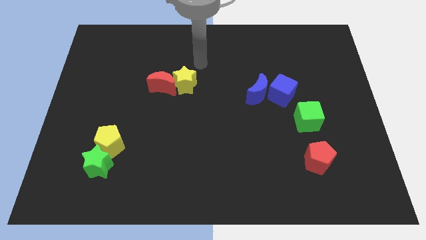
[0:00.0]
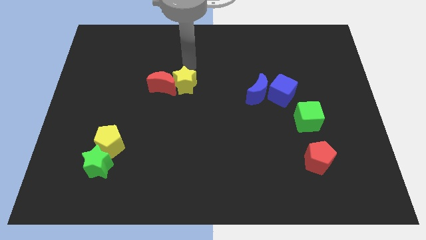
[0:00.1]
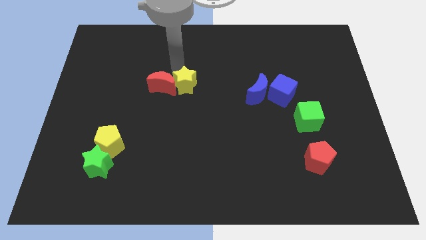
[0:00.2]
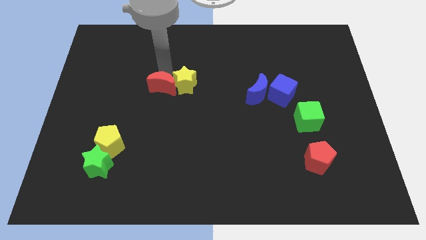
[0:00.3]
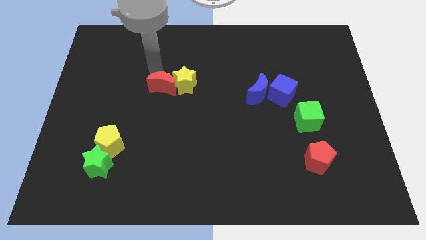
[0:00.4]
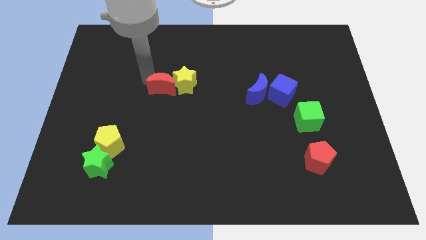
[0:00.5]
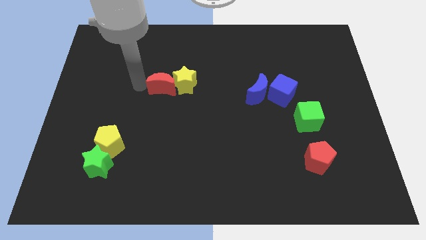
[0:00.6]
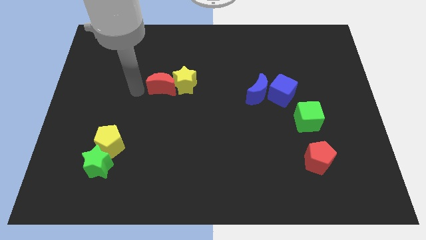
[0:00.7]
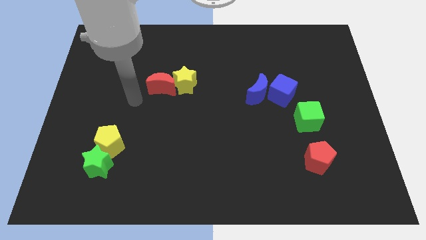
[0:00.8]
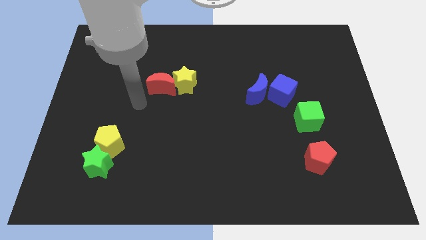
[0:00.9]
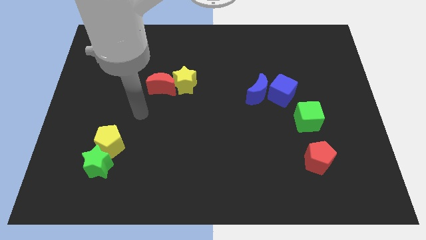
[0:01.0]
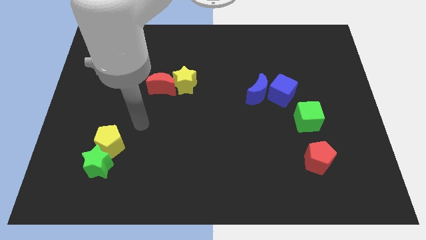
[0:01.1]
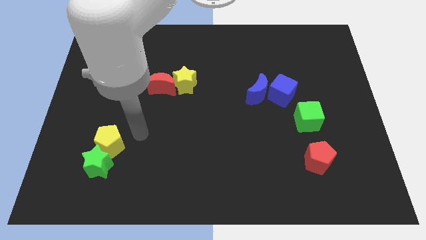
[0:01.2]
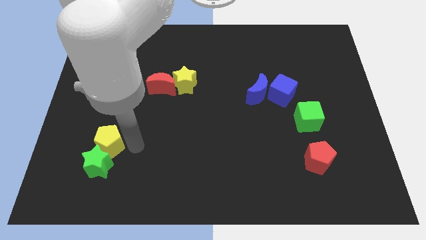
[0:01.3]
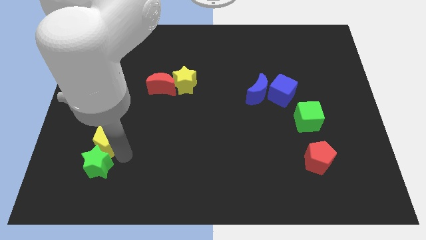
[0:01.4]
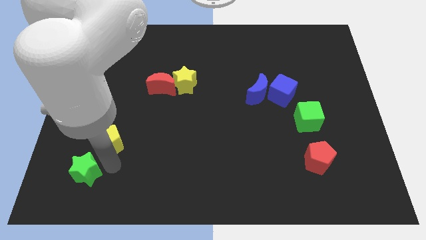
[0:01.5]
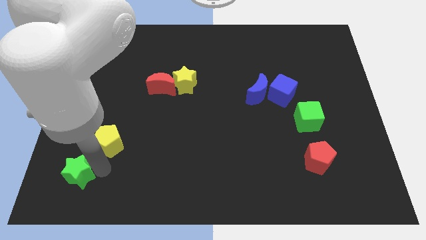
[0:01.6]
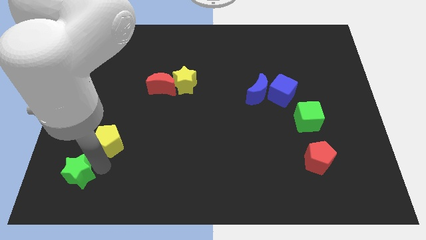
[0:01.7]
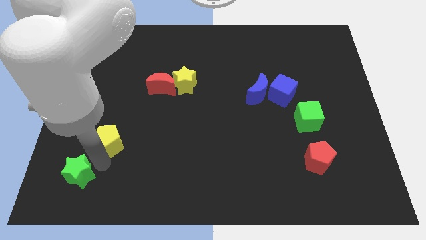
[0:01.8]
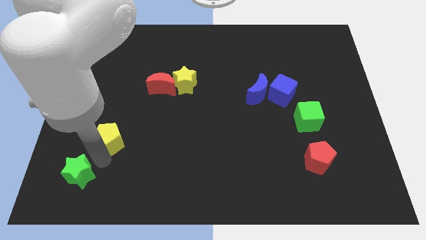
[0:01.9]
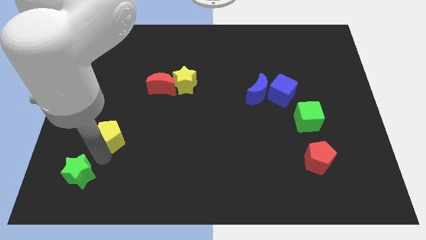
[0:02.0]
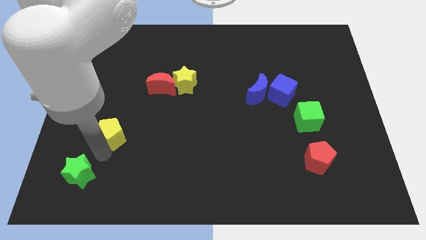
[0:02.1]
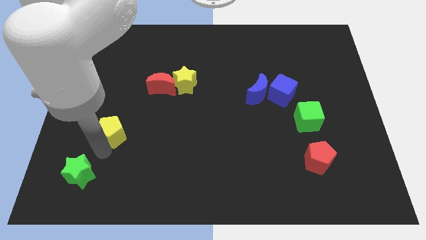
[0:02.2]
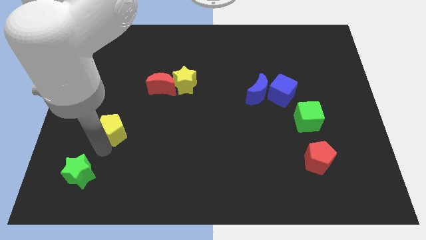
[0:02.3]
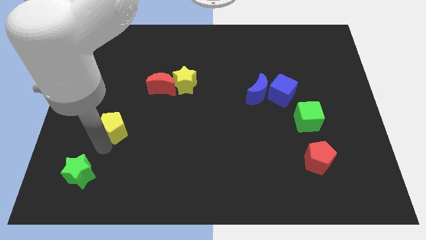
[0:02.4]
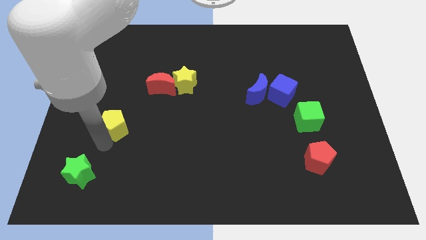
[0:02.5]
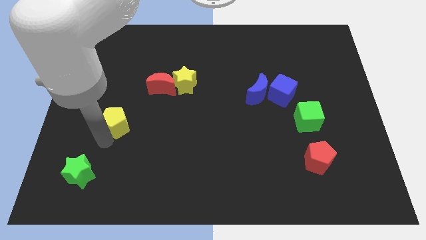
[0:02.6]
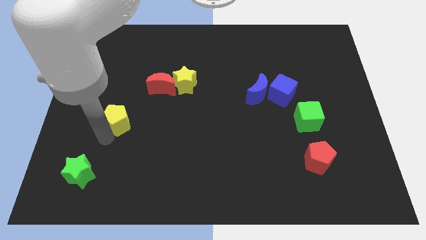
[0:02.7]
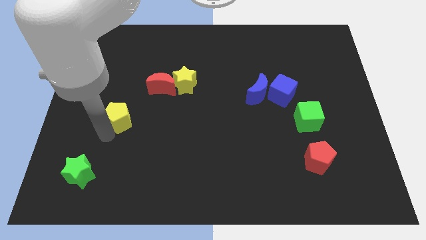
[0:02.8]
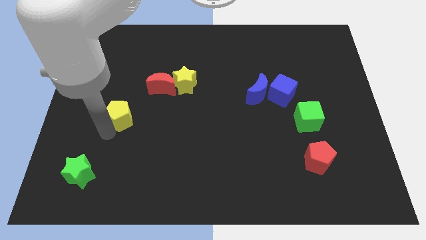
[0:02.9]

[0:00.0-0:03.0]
move the yellow pentagon a bit upwards

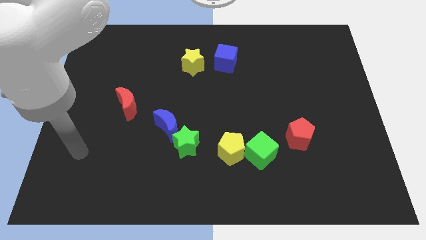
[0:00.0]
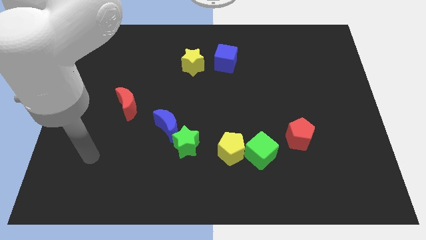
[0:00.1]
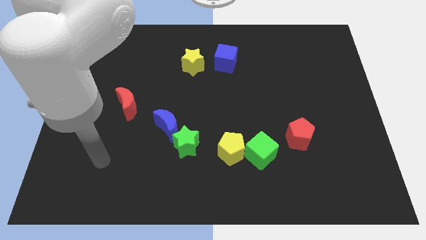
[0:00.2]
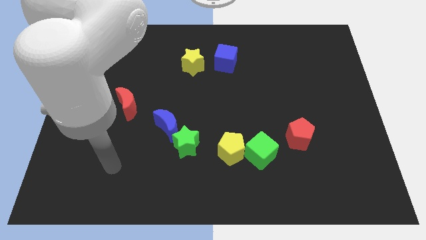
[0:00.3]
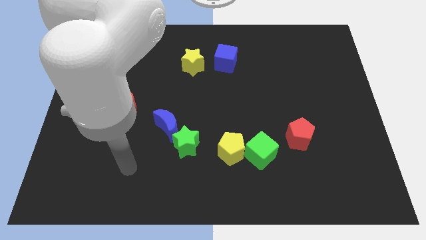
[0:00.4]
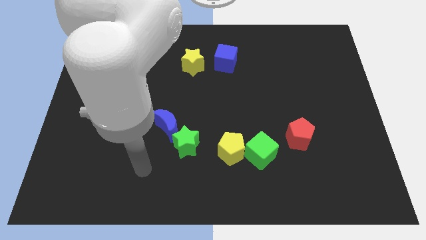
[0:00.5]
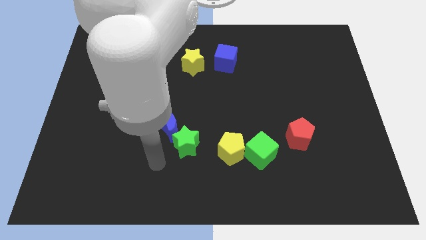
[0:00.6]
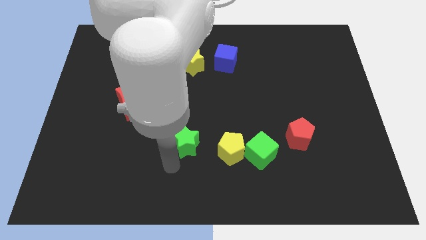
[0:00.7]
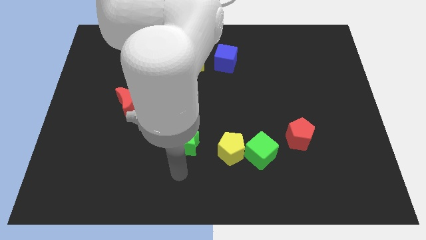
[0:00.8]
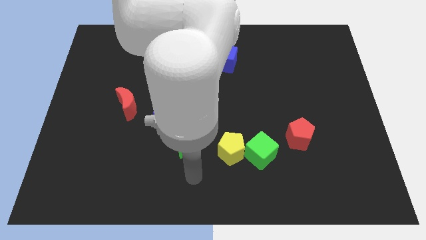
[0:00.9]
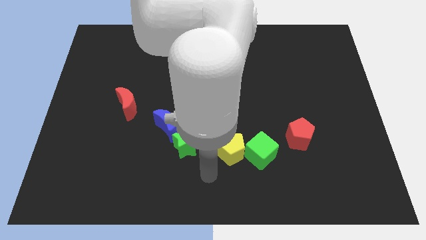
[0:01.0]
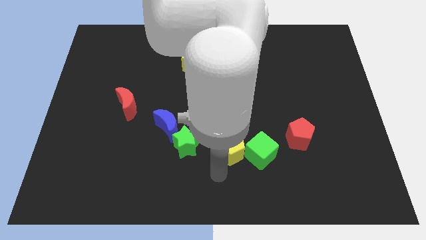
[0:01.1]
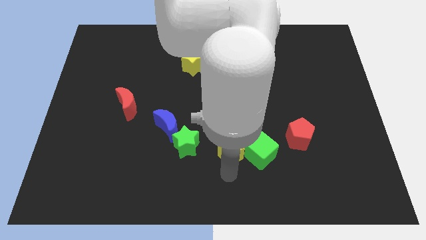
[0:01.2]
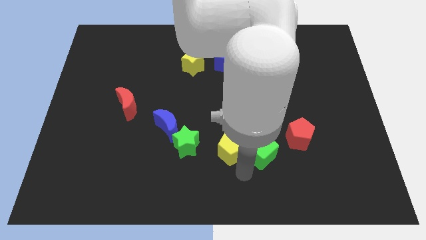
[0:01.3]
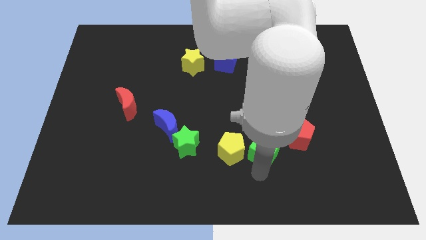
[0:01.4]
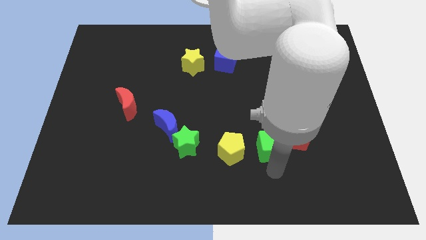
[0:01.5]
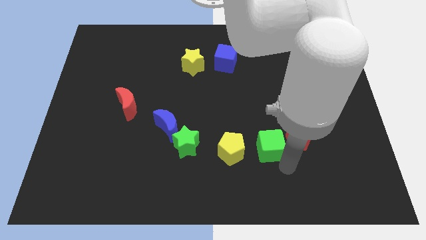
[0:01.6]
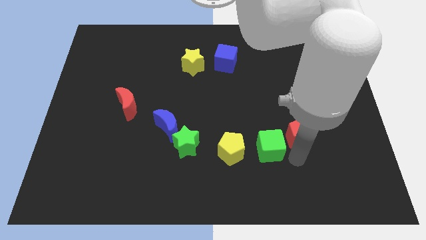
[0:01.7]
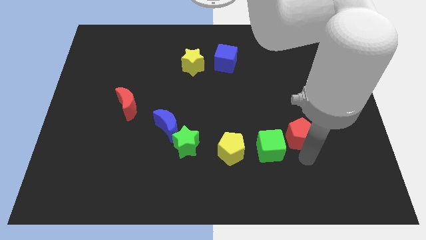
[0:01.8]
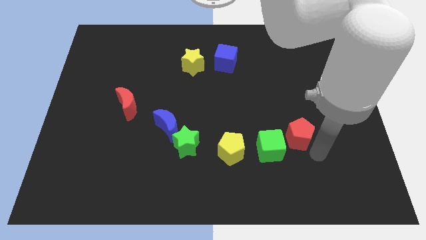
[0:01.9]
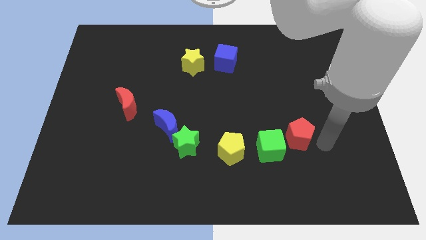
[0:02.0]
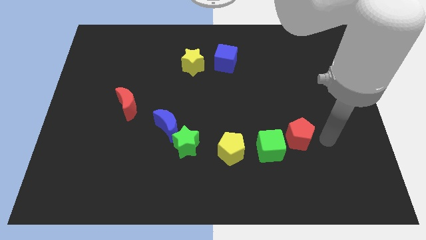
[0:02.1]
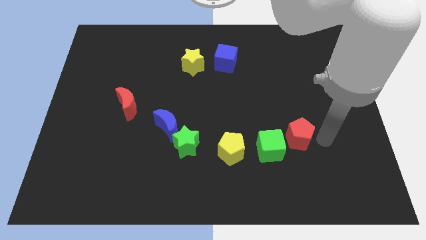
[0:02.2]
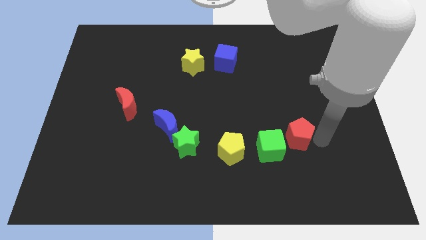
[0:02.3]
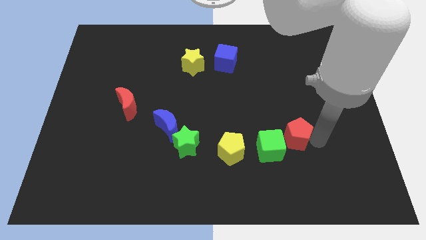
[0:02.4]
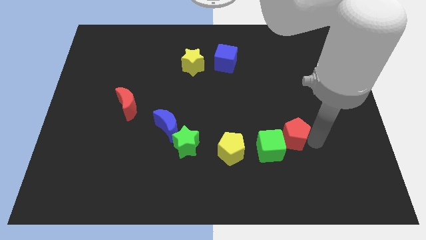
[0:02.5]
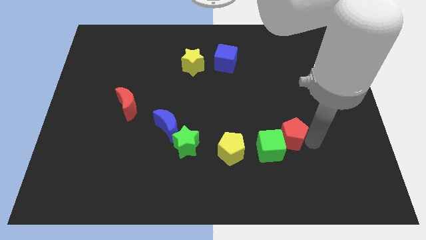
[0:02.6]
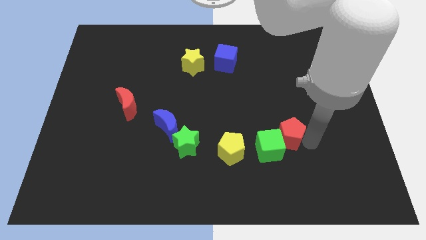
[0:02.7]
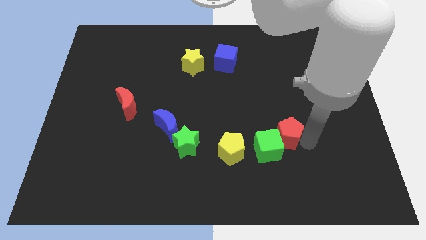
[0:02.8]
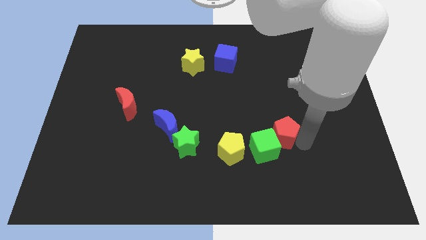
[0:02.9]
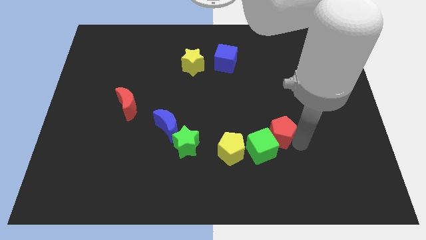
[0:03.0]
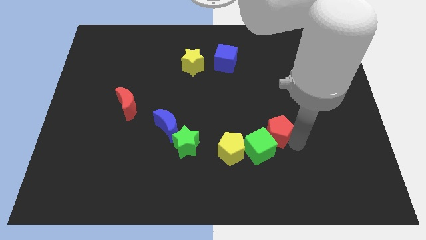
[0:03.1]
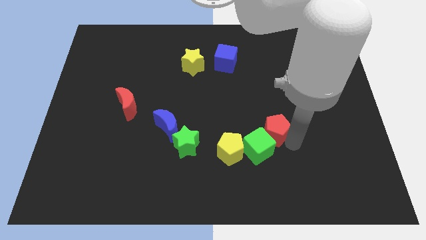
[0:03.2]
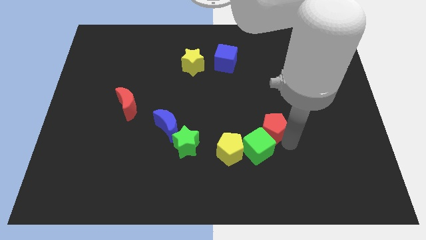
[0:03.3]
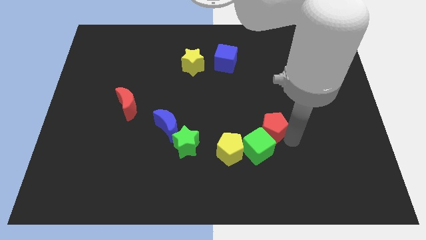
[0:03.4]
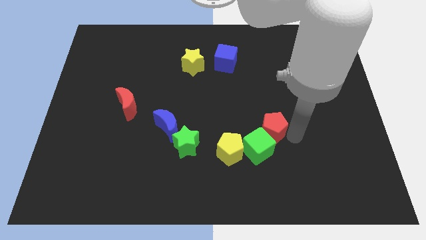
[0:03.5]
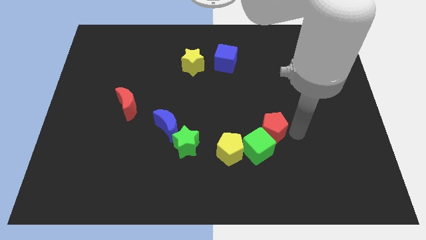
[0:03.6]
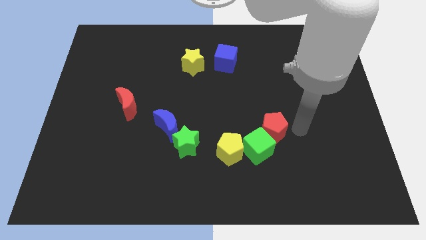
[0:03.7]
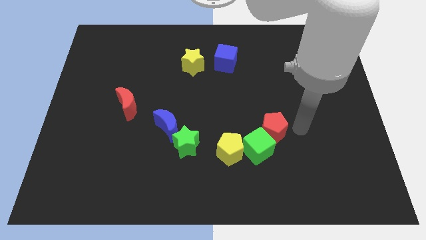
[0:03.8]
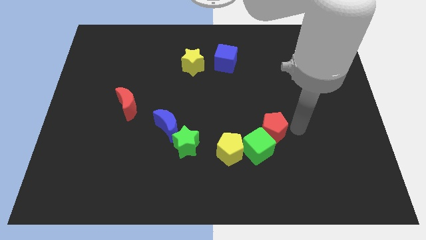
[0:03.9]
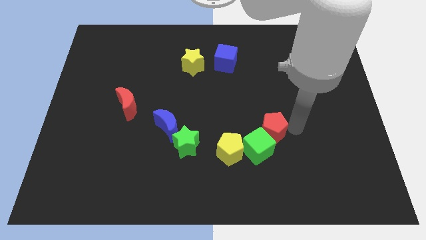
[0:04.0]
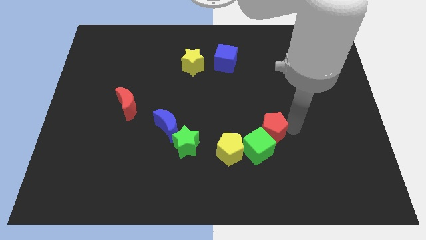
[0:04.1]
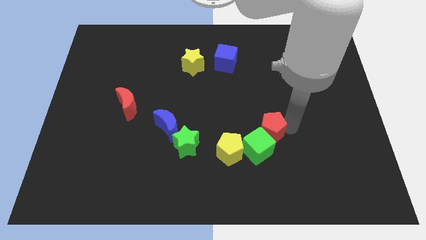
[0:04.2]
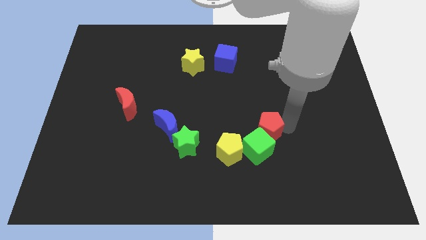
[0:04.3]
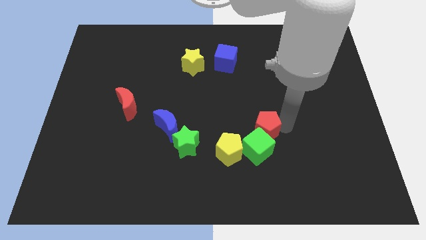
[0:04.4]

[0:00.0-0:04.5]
slightly push the red pentagon to the left

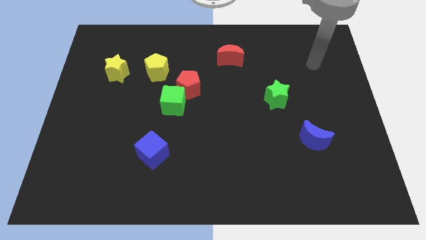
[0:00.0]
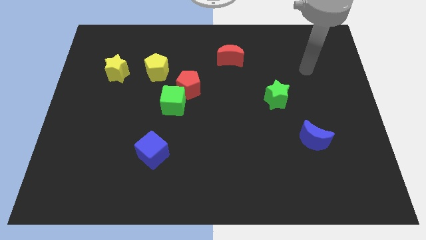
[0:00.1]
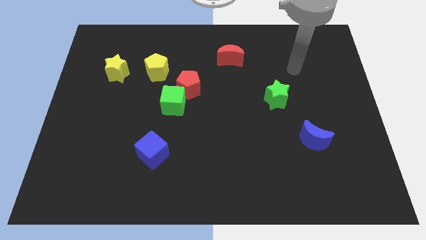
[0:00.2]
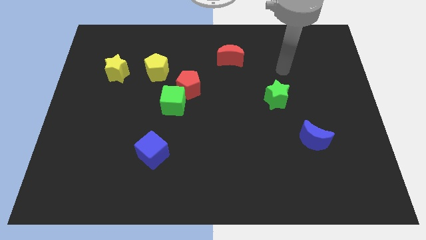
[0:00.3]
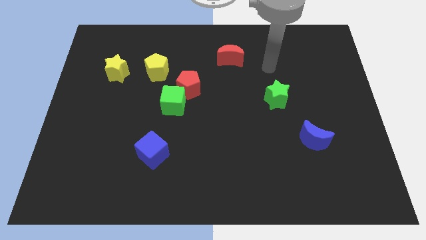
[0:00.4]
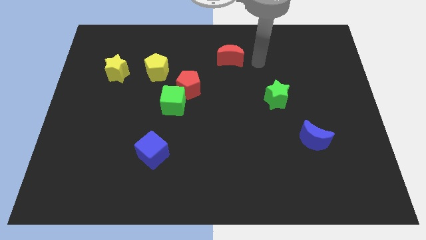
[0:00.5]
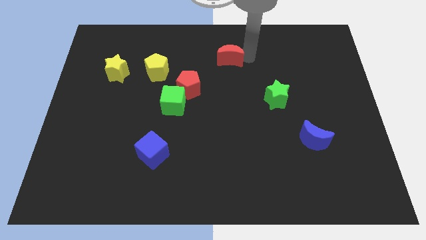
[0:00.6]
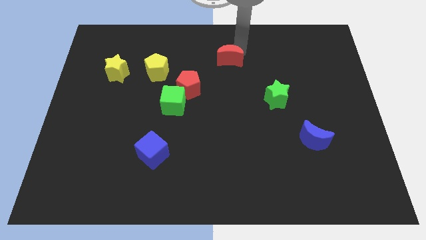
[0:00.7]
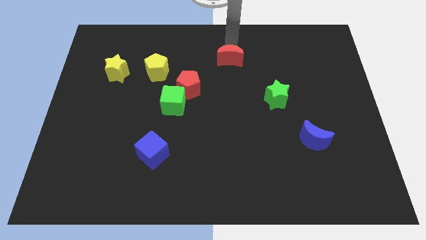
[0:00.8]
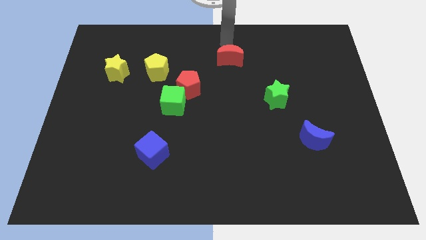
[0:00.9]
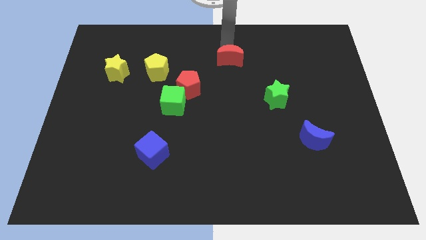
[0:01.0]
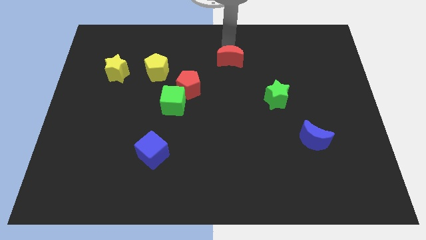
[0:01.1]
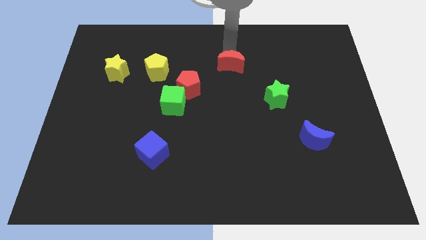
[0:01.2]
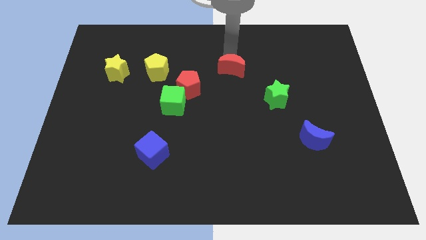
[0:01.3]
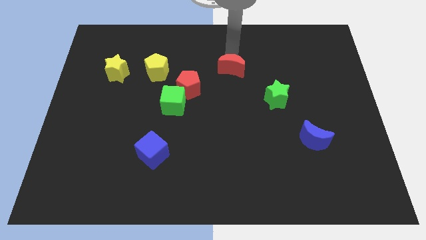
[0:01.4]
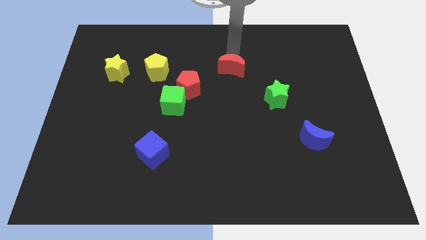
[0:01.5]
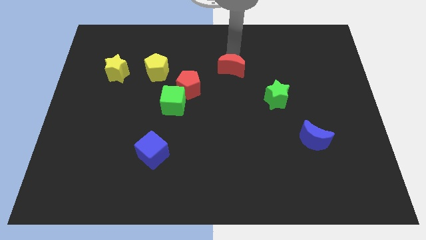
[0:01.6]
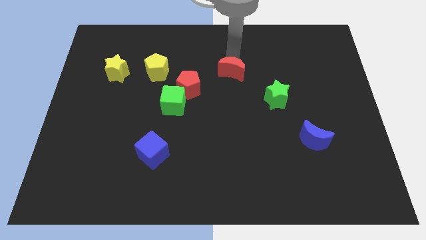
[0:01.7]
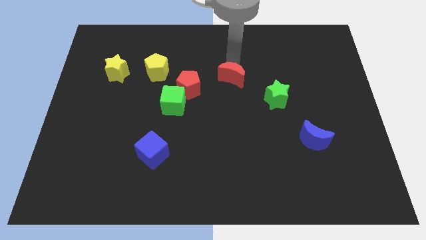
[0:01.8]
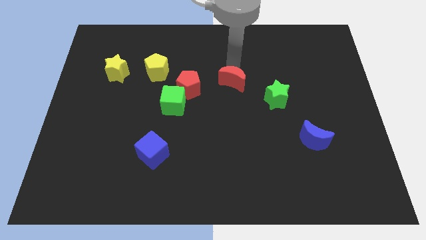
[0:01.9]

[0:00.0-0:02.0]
slightly push the red moon downwards
